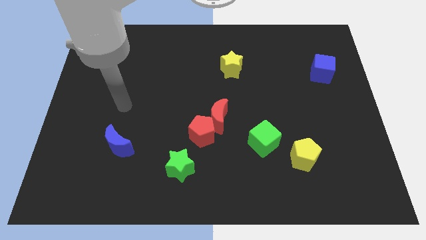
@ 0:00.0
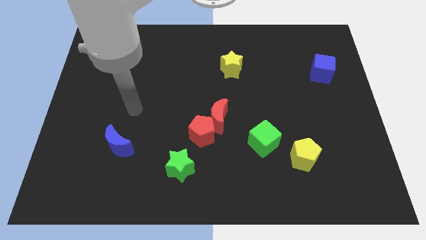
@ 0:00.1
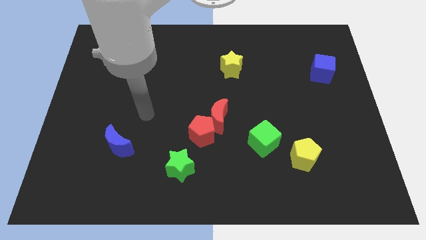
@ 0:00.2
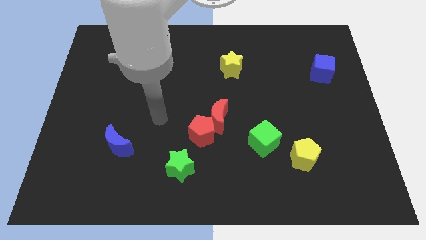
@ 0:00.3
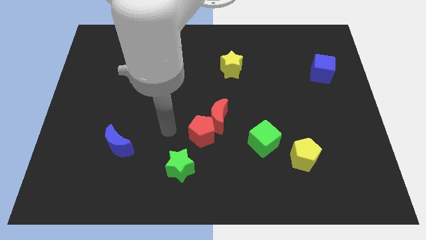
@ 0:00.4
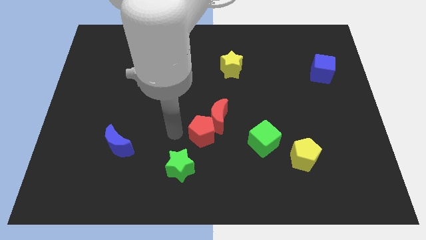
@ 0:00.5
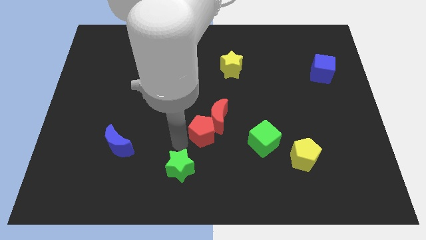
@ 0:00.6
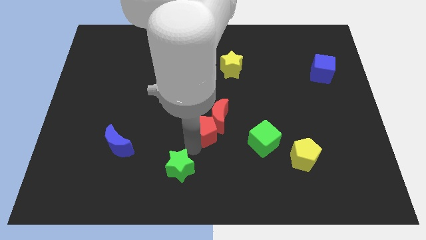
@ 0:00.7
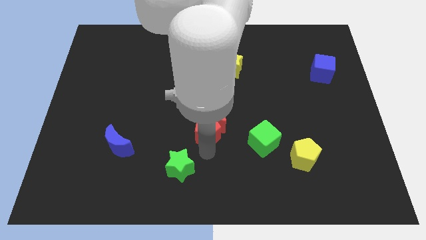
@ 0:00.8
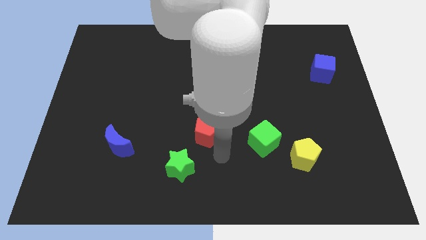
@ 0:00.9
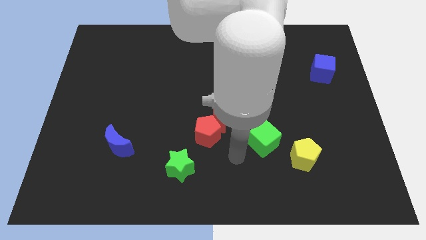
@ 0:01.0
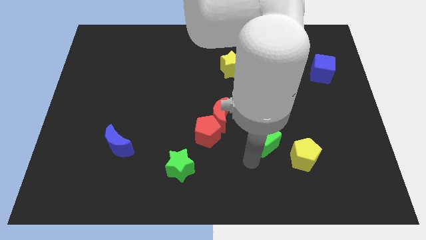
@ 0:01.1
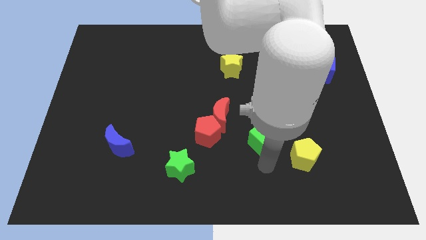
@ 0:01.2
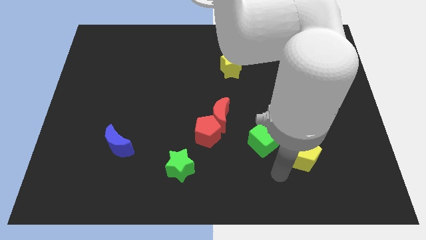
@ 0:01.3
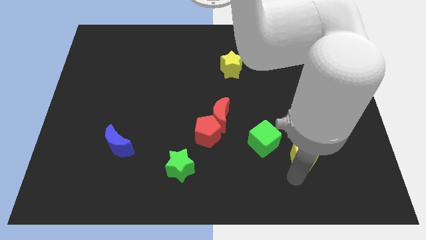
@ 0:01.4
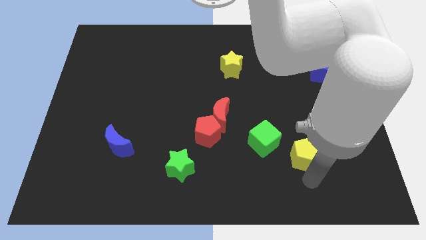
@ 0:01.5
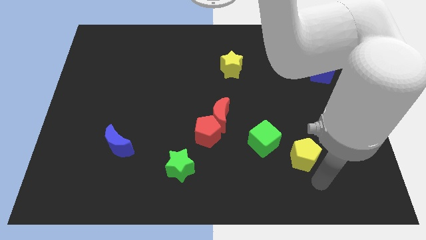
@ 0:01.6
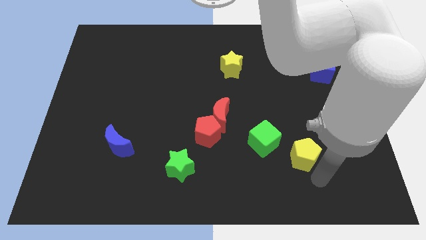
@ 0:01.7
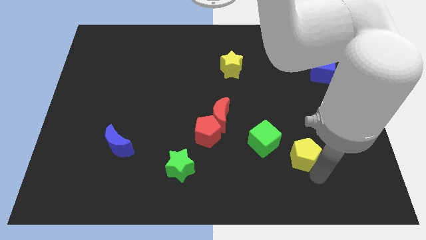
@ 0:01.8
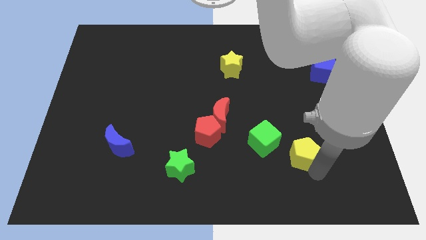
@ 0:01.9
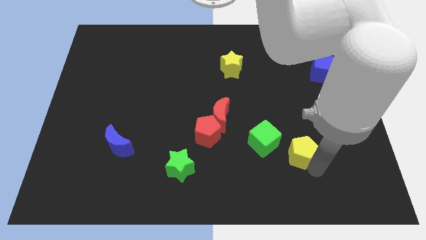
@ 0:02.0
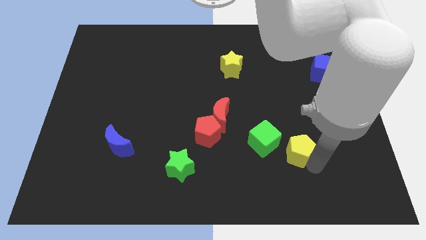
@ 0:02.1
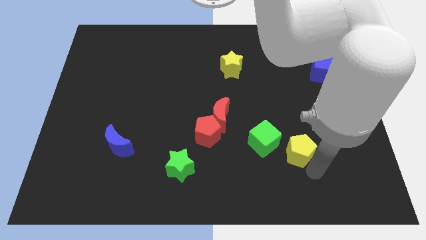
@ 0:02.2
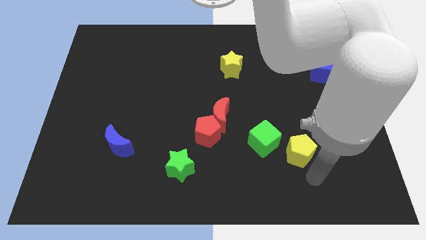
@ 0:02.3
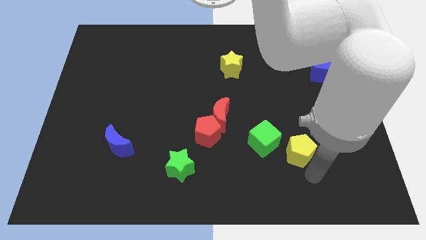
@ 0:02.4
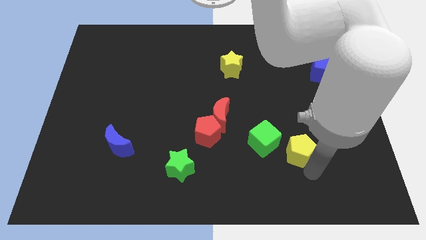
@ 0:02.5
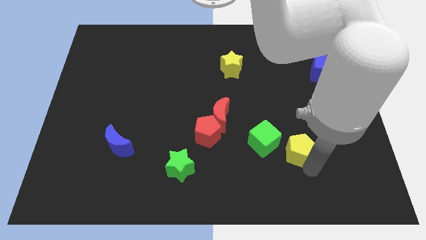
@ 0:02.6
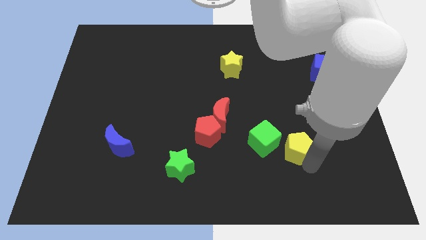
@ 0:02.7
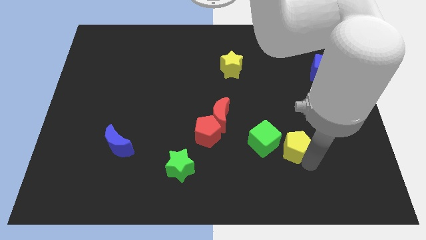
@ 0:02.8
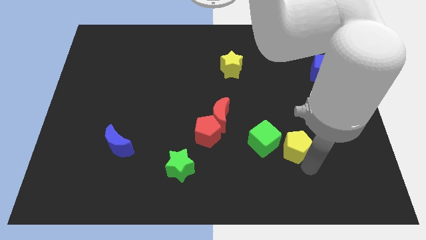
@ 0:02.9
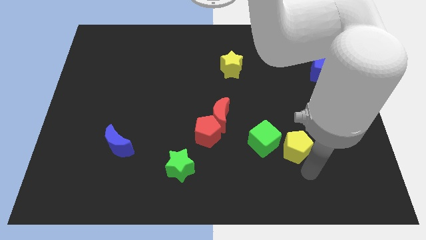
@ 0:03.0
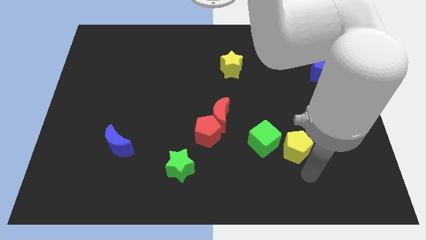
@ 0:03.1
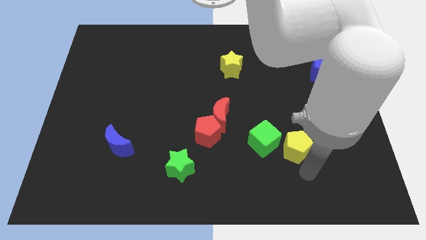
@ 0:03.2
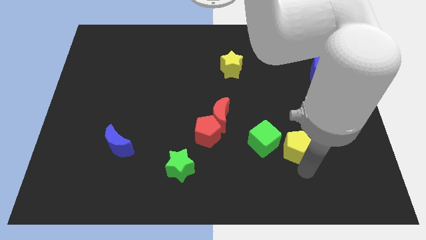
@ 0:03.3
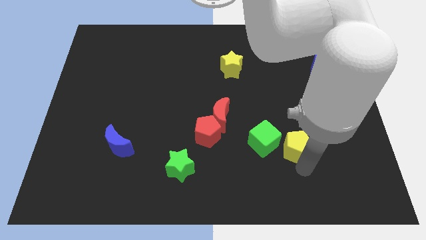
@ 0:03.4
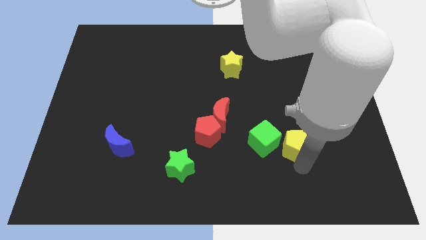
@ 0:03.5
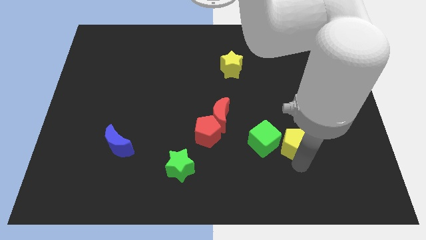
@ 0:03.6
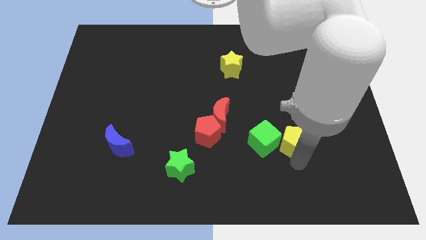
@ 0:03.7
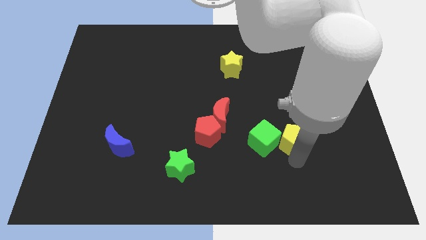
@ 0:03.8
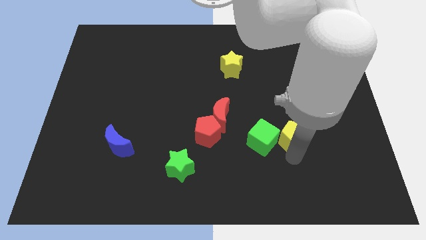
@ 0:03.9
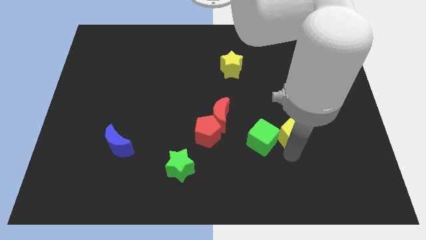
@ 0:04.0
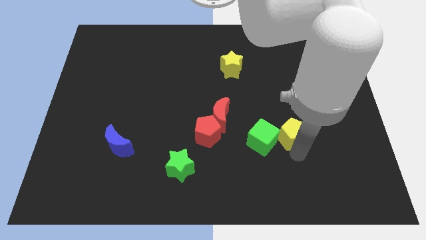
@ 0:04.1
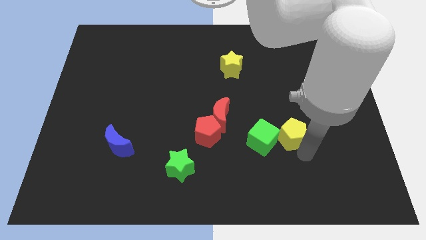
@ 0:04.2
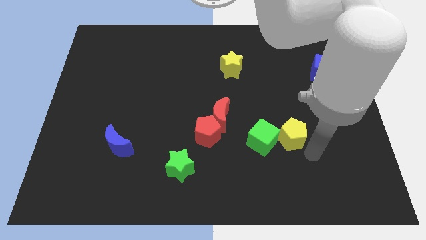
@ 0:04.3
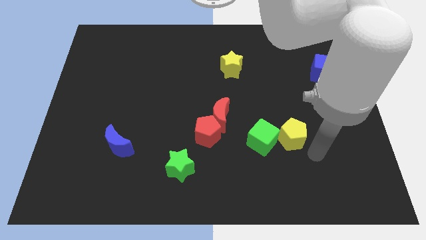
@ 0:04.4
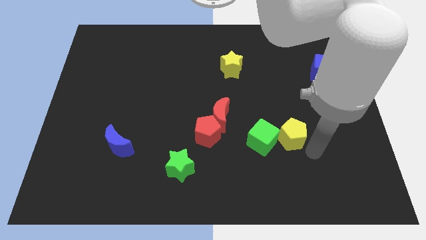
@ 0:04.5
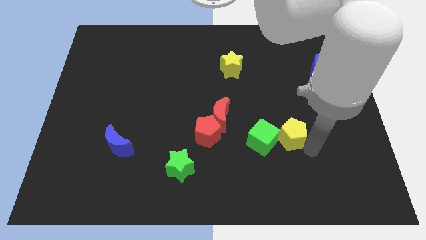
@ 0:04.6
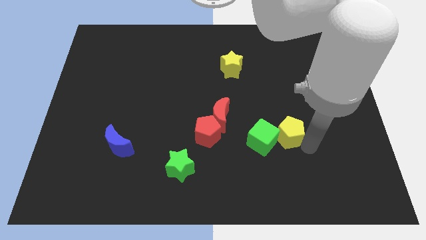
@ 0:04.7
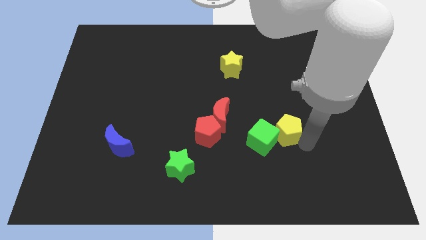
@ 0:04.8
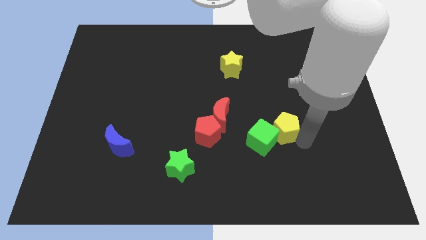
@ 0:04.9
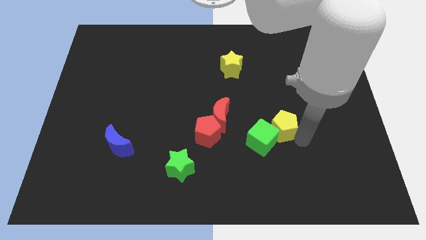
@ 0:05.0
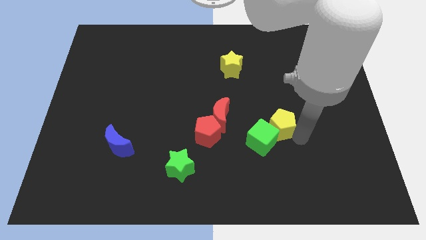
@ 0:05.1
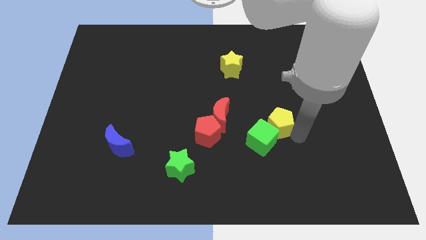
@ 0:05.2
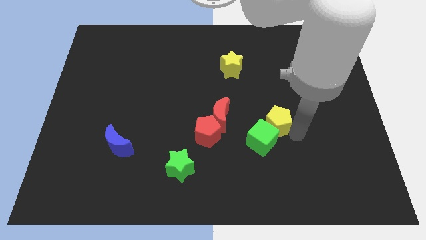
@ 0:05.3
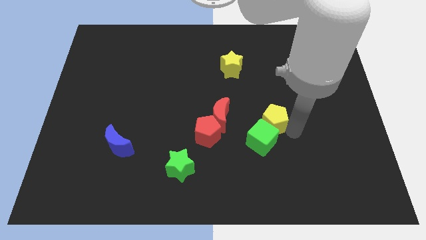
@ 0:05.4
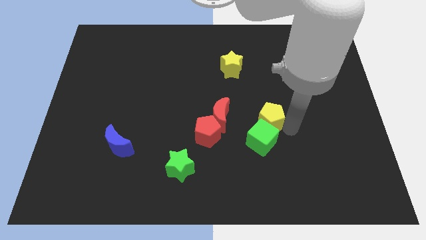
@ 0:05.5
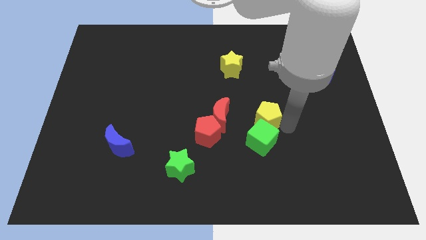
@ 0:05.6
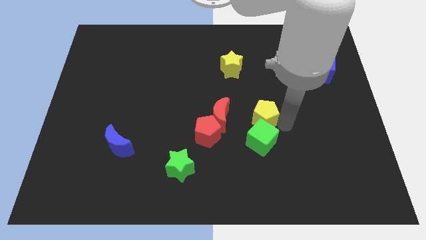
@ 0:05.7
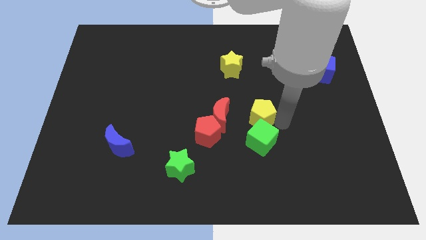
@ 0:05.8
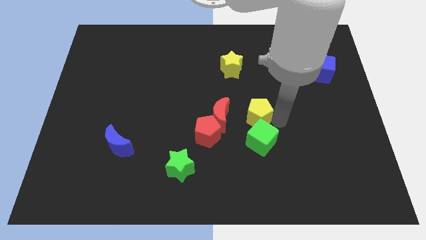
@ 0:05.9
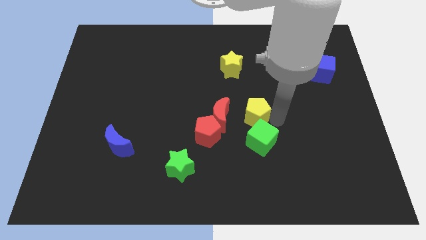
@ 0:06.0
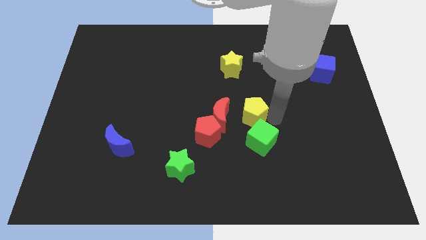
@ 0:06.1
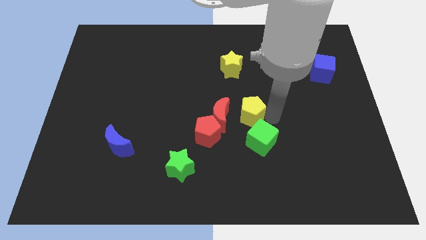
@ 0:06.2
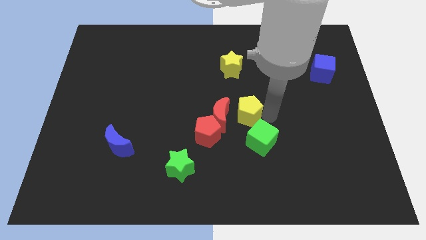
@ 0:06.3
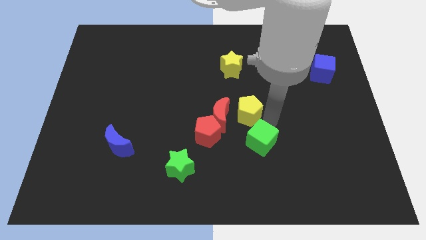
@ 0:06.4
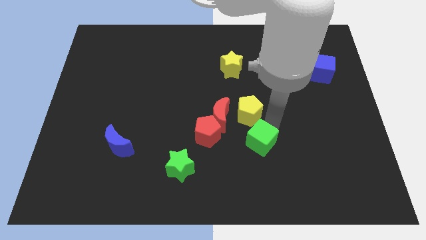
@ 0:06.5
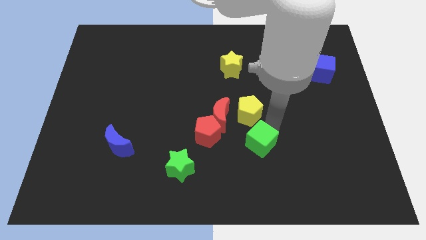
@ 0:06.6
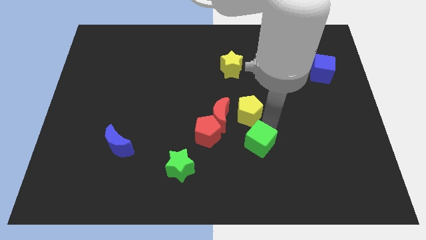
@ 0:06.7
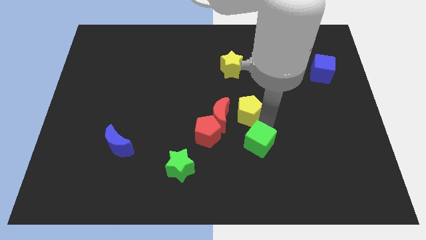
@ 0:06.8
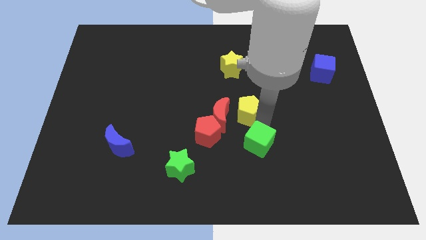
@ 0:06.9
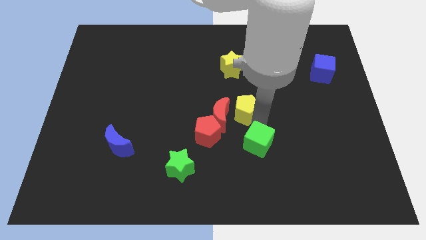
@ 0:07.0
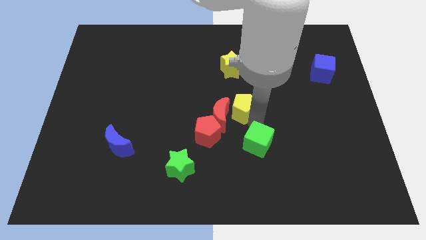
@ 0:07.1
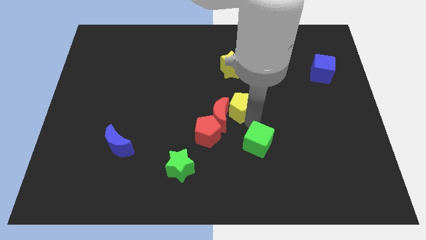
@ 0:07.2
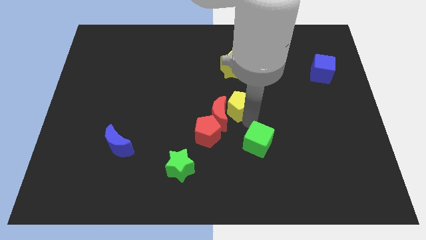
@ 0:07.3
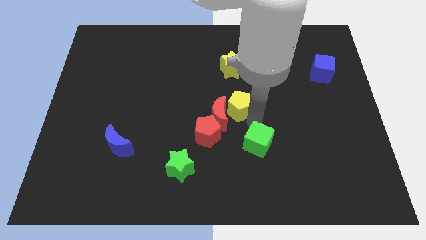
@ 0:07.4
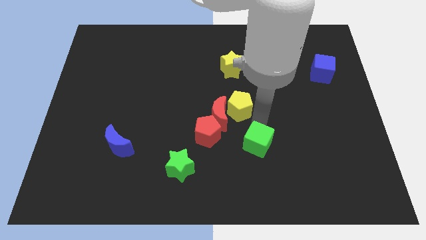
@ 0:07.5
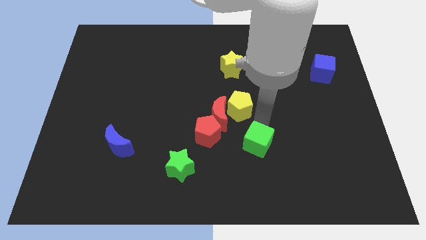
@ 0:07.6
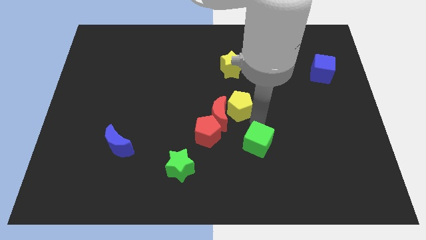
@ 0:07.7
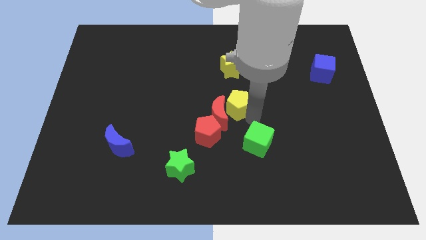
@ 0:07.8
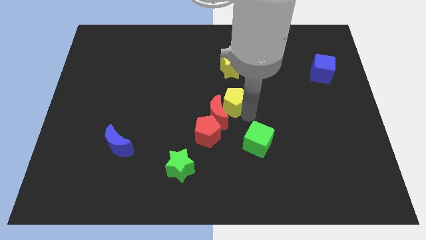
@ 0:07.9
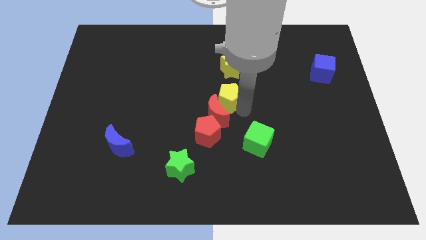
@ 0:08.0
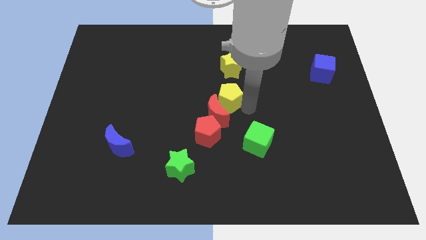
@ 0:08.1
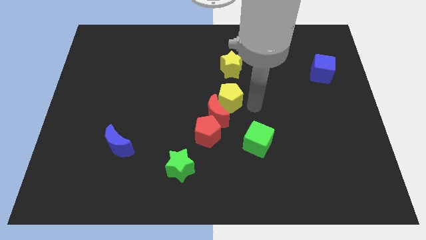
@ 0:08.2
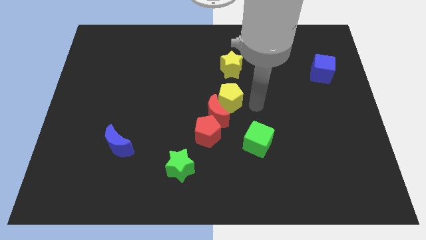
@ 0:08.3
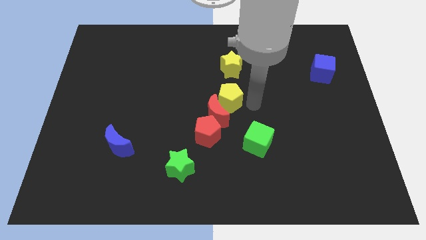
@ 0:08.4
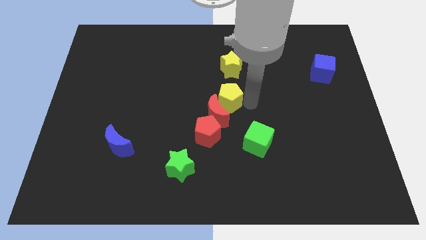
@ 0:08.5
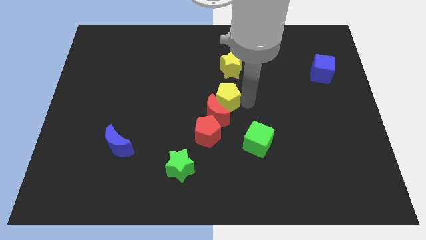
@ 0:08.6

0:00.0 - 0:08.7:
put the yellow pentagon to the top of the red pentagon
